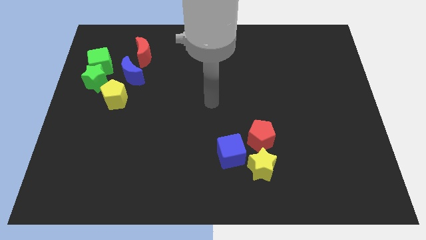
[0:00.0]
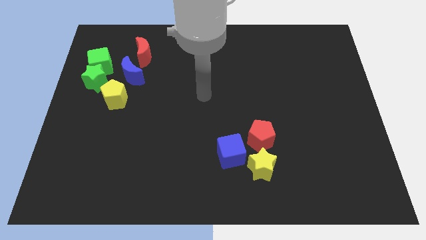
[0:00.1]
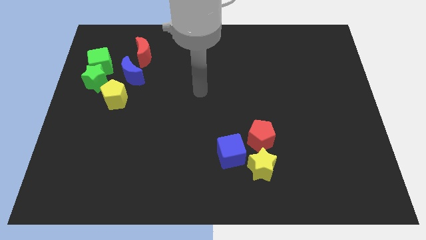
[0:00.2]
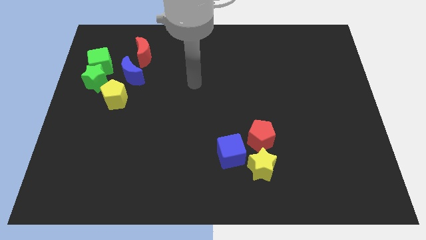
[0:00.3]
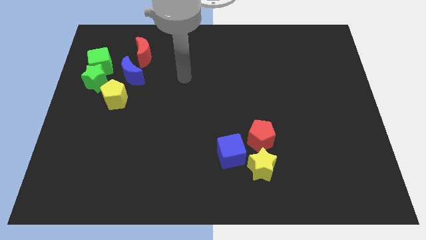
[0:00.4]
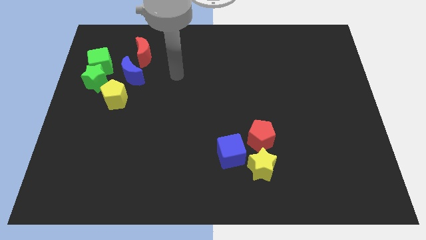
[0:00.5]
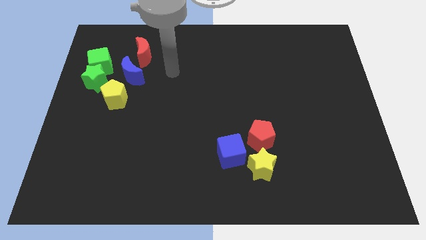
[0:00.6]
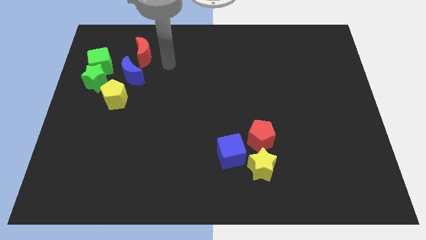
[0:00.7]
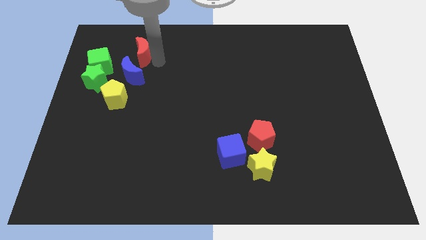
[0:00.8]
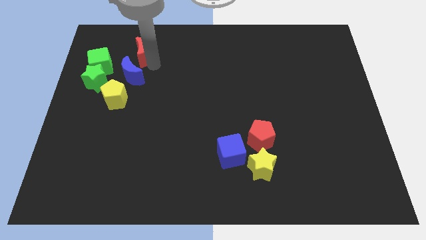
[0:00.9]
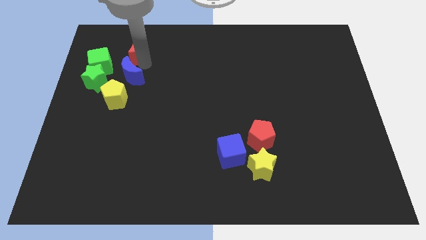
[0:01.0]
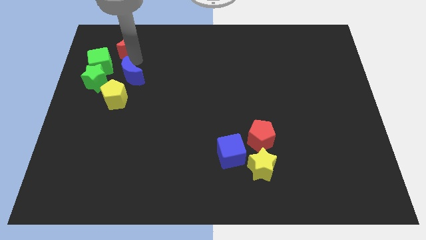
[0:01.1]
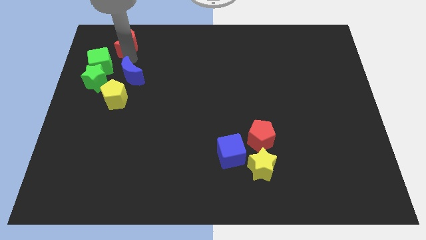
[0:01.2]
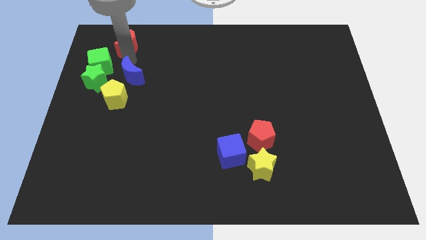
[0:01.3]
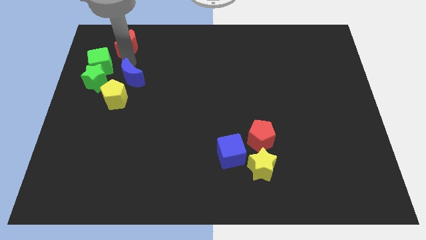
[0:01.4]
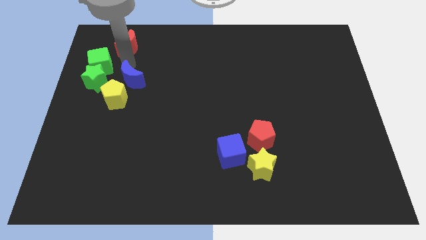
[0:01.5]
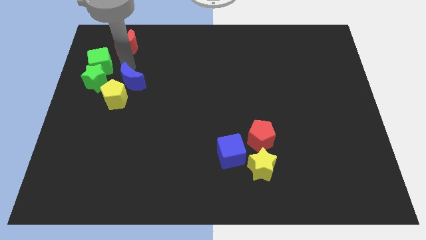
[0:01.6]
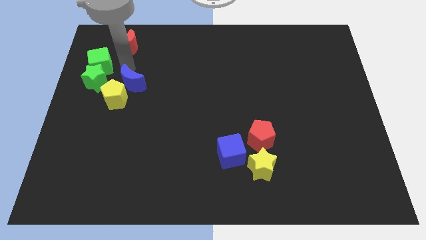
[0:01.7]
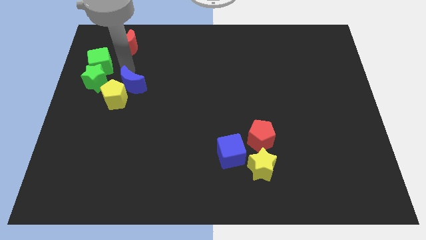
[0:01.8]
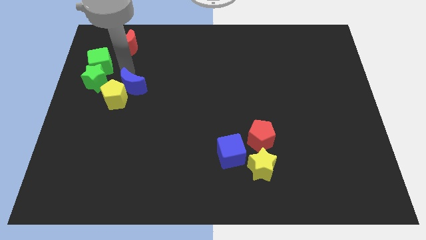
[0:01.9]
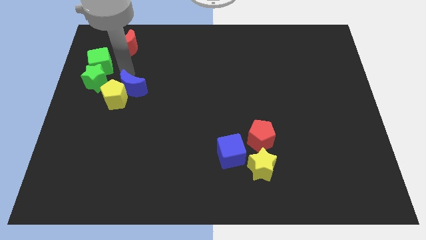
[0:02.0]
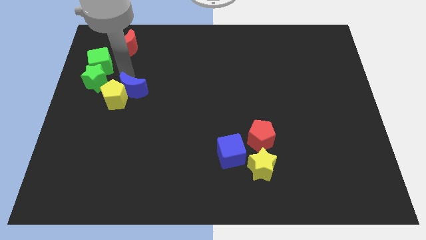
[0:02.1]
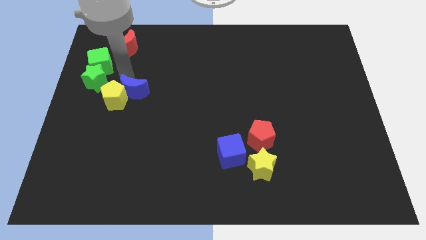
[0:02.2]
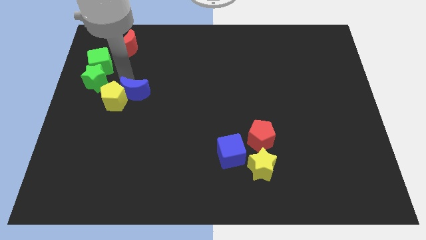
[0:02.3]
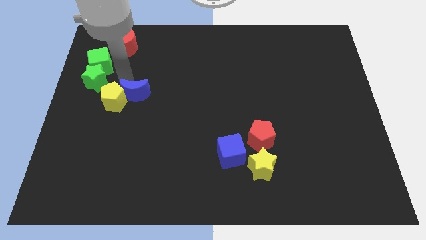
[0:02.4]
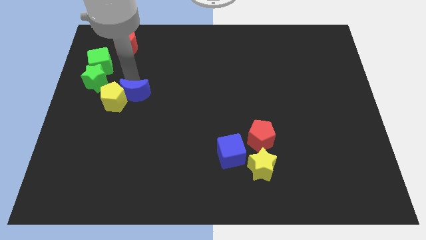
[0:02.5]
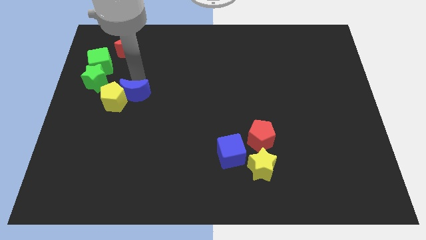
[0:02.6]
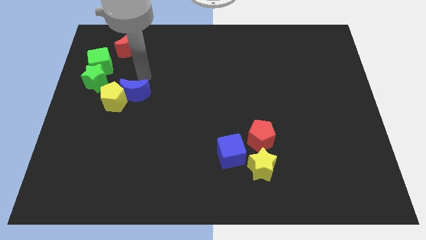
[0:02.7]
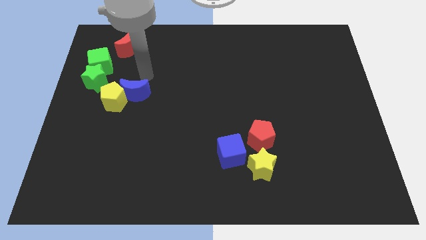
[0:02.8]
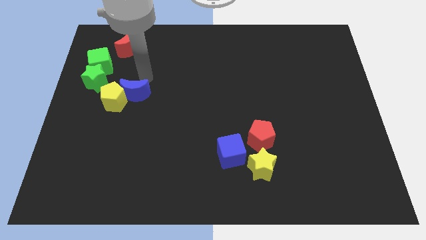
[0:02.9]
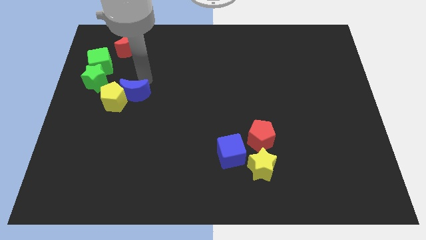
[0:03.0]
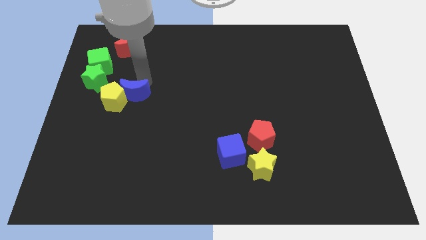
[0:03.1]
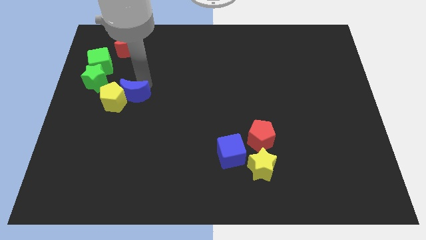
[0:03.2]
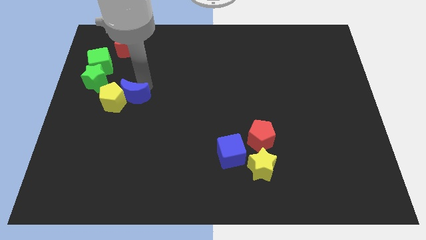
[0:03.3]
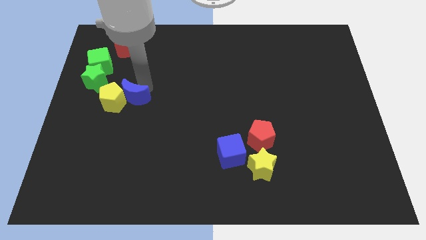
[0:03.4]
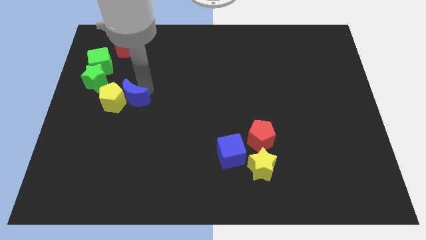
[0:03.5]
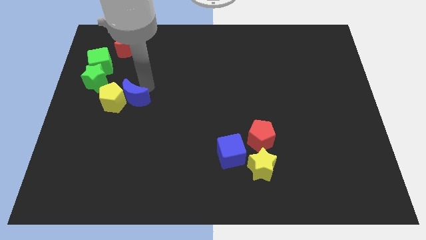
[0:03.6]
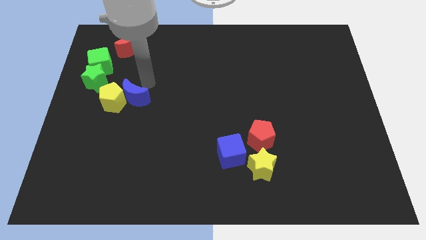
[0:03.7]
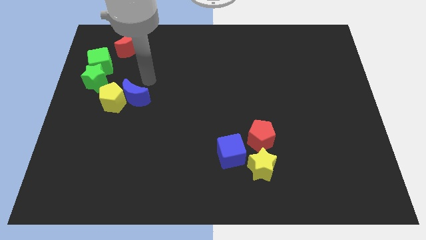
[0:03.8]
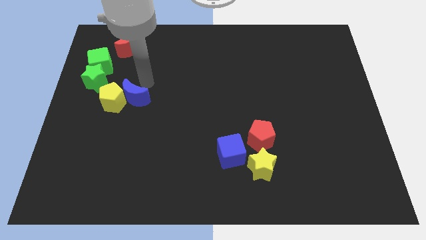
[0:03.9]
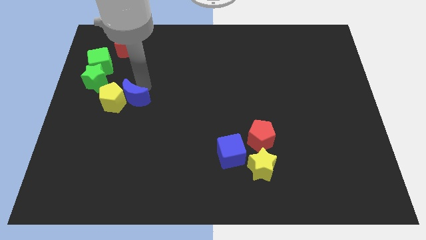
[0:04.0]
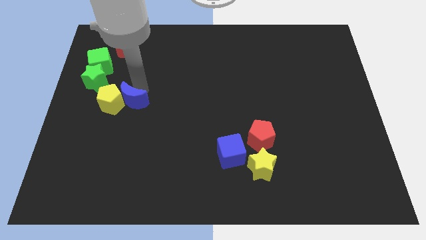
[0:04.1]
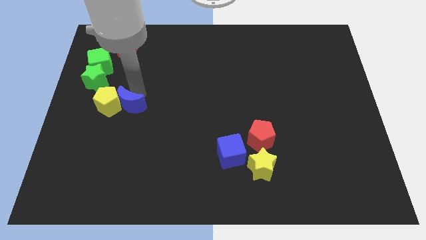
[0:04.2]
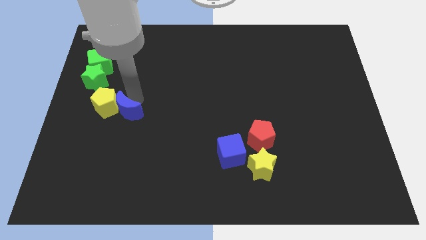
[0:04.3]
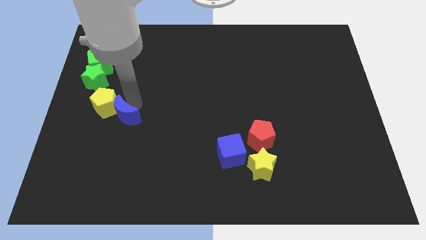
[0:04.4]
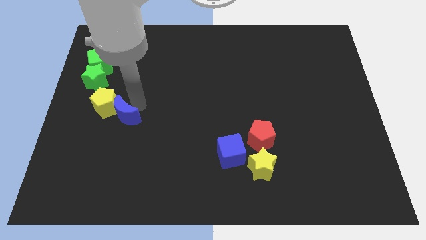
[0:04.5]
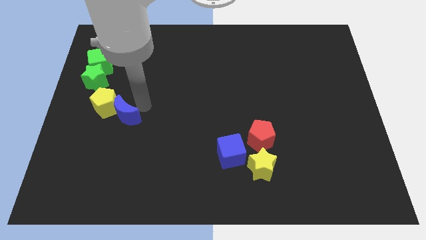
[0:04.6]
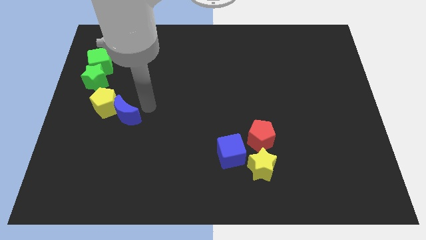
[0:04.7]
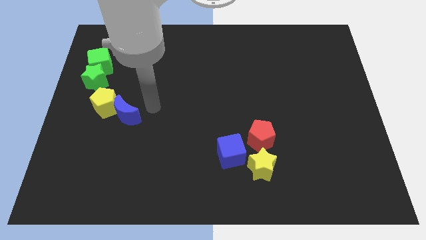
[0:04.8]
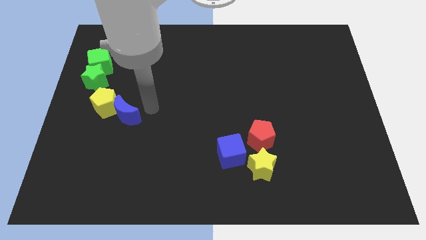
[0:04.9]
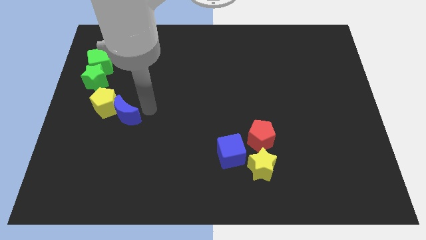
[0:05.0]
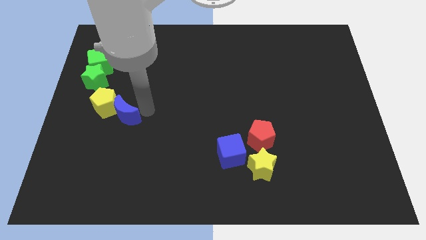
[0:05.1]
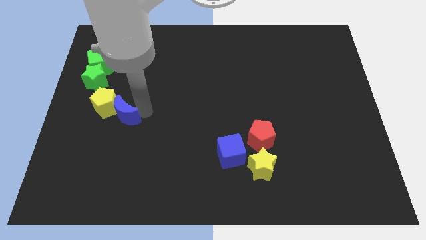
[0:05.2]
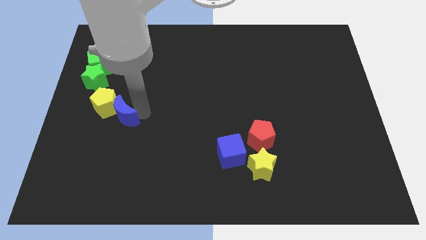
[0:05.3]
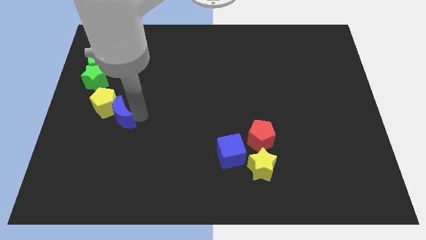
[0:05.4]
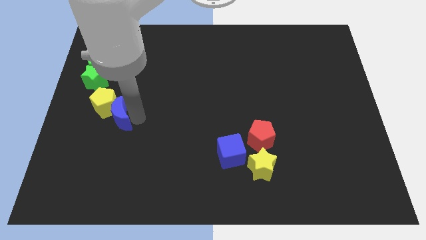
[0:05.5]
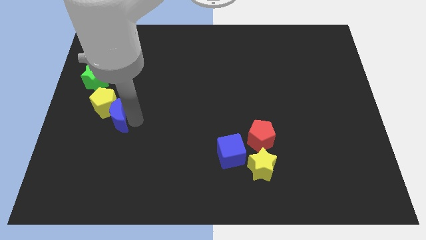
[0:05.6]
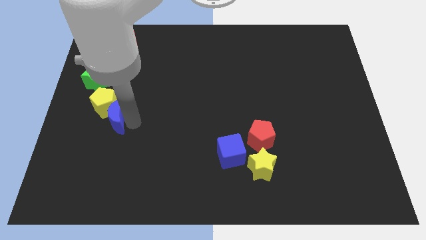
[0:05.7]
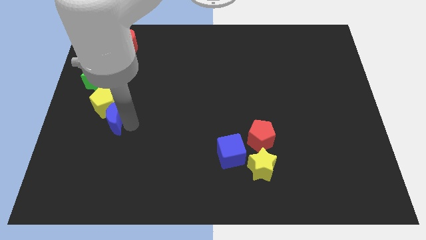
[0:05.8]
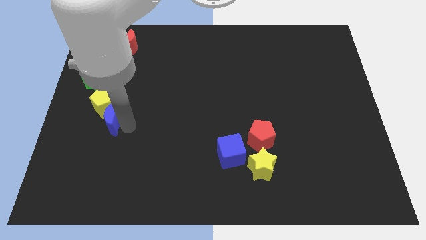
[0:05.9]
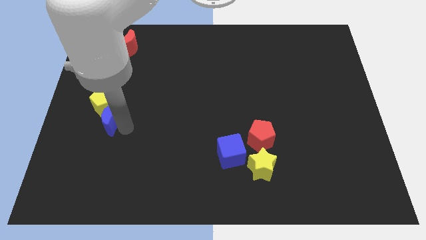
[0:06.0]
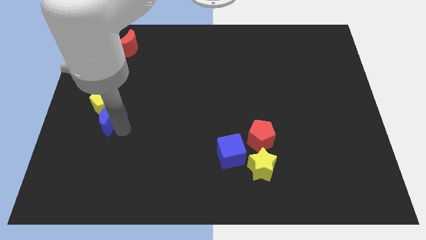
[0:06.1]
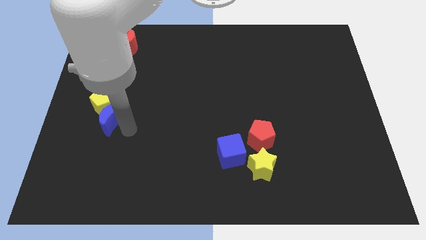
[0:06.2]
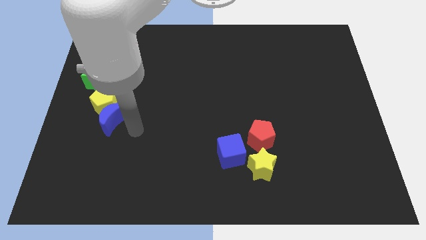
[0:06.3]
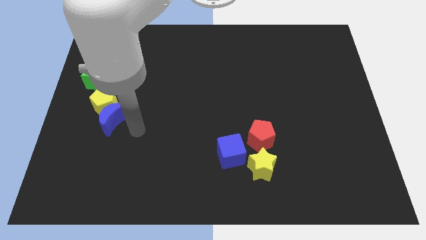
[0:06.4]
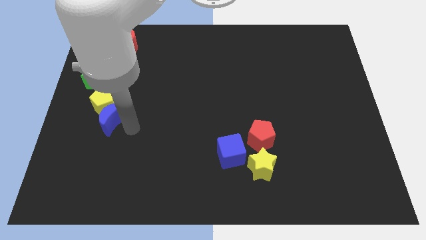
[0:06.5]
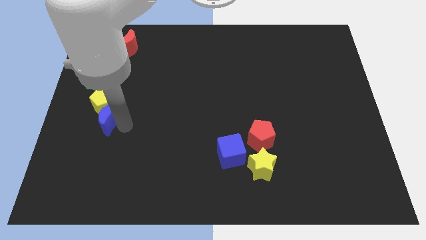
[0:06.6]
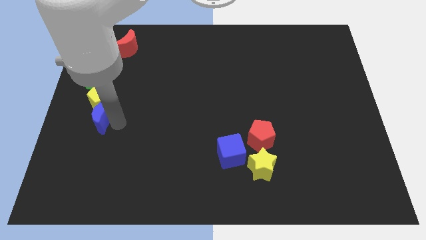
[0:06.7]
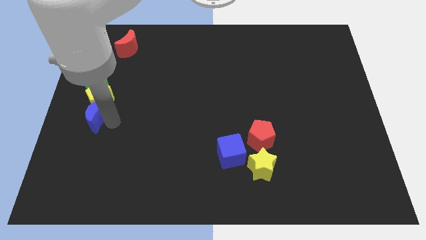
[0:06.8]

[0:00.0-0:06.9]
put the blue moon to the center left

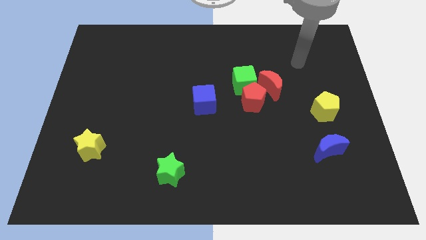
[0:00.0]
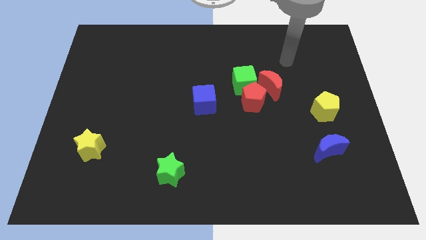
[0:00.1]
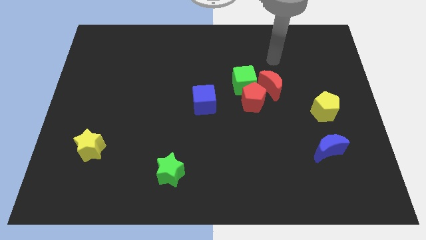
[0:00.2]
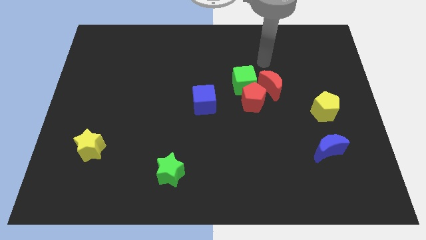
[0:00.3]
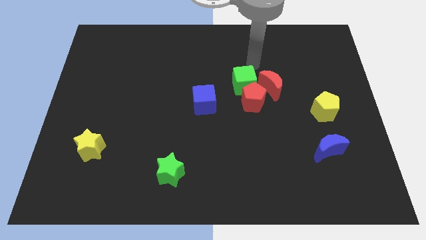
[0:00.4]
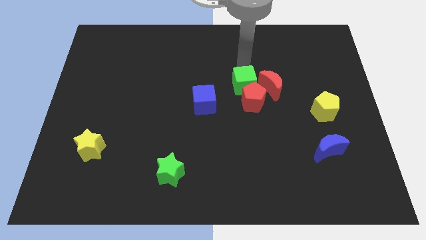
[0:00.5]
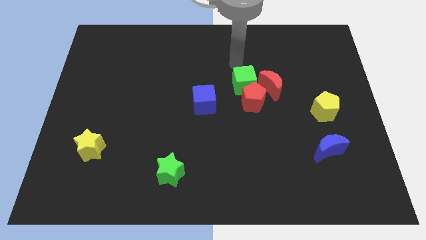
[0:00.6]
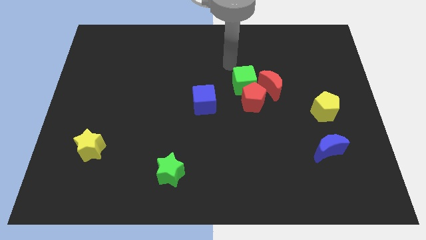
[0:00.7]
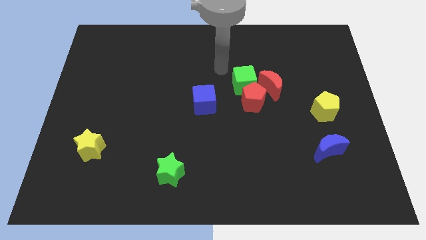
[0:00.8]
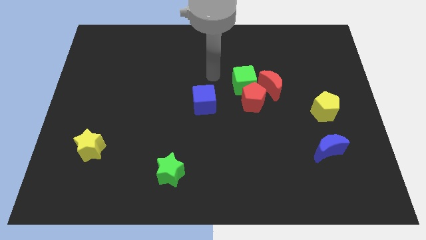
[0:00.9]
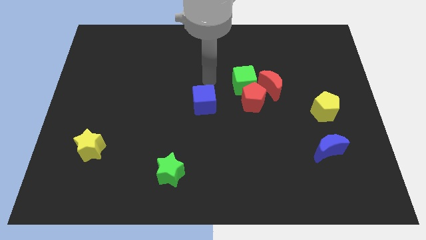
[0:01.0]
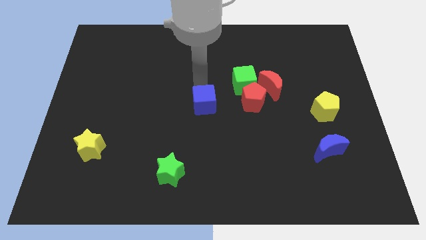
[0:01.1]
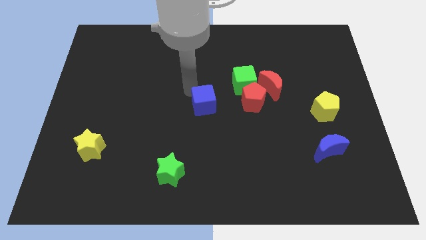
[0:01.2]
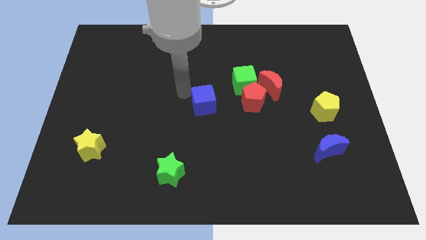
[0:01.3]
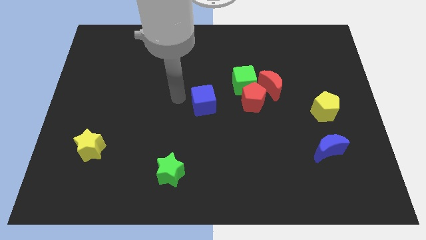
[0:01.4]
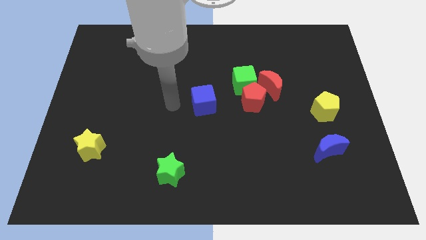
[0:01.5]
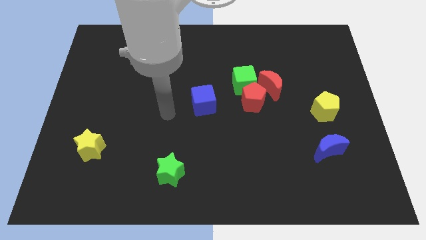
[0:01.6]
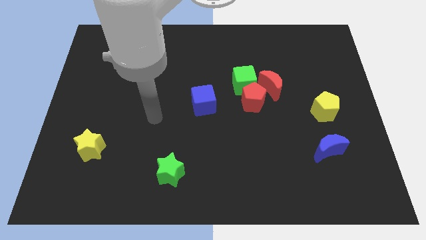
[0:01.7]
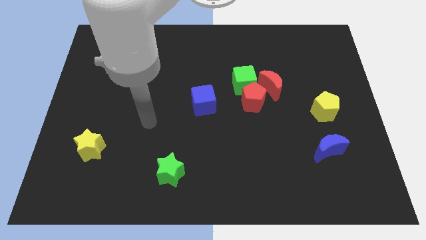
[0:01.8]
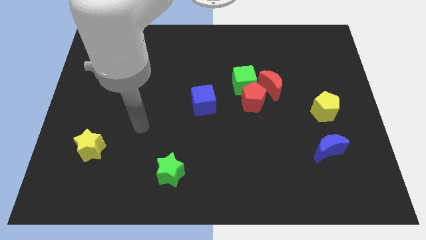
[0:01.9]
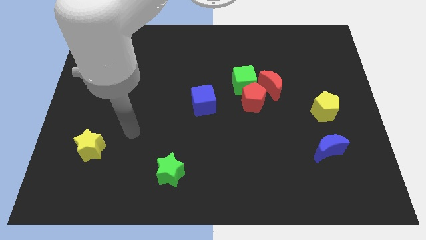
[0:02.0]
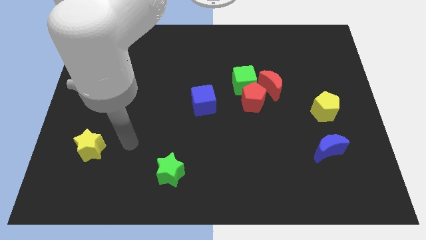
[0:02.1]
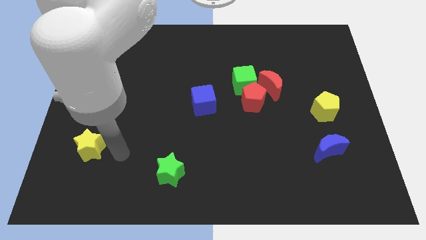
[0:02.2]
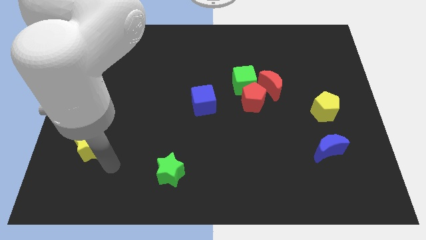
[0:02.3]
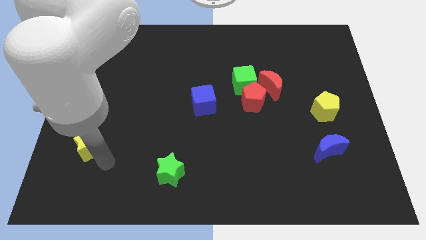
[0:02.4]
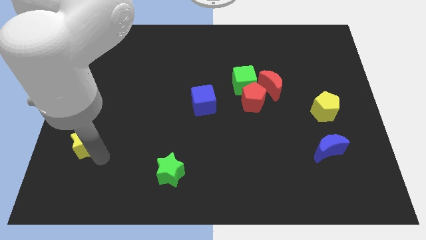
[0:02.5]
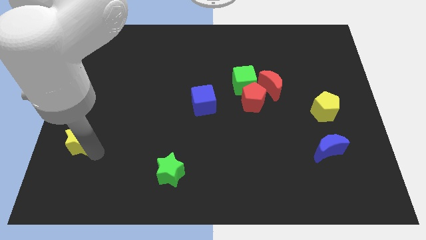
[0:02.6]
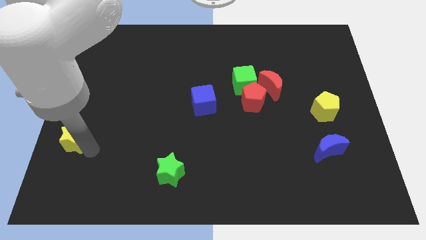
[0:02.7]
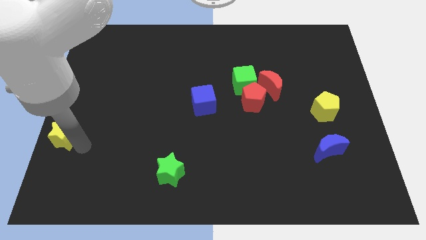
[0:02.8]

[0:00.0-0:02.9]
slide the yellow star to the left side of the board
